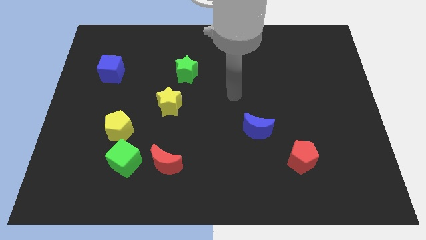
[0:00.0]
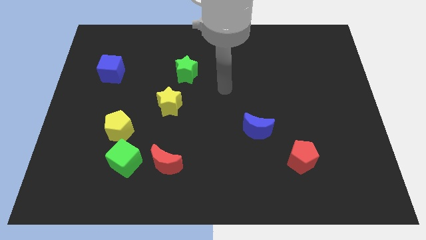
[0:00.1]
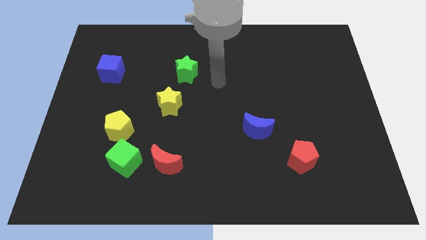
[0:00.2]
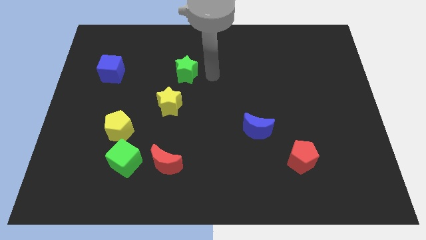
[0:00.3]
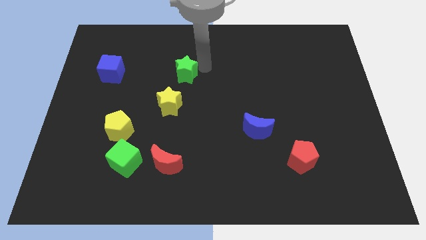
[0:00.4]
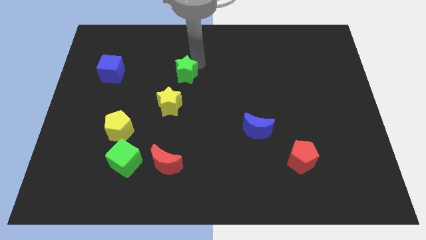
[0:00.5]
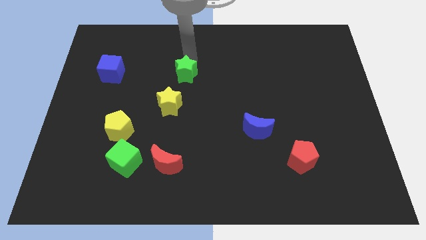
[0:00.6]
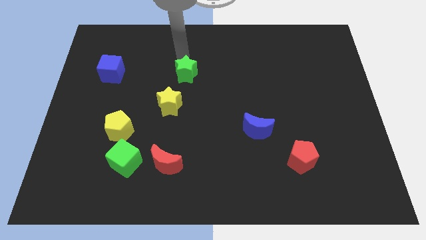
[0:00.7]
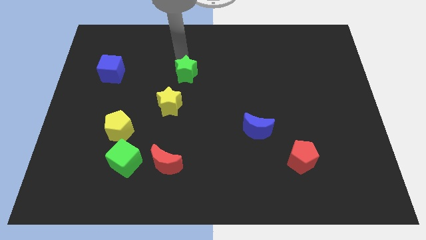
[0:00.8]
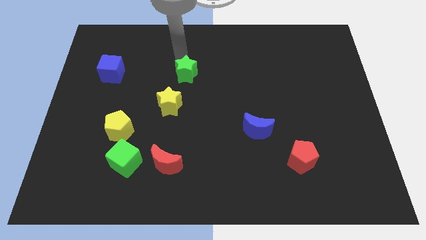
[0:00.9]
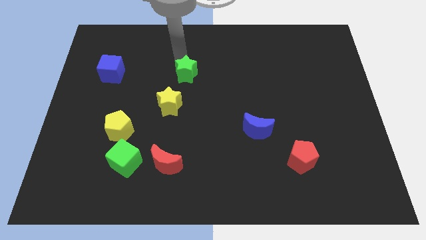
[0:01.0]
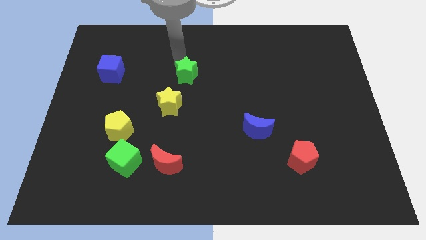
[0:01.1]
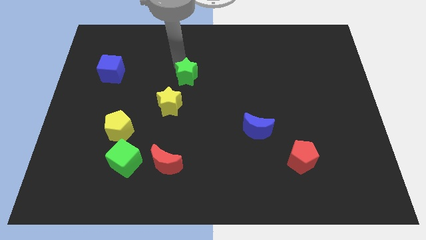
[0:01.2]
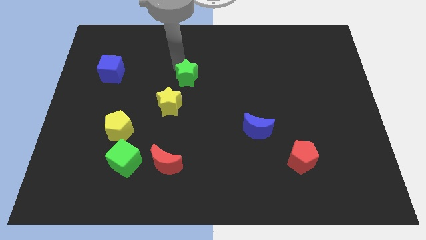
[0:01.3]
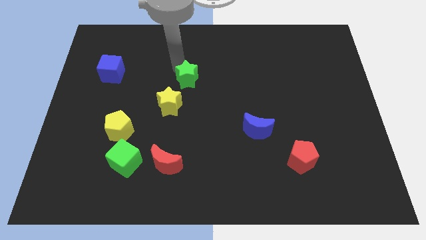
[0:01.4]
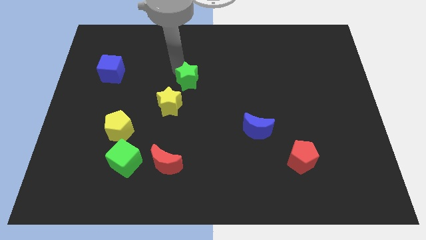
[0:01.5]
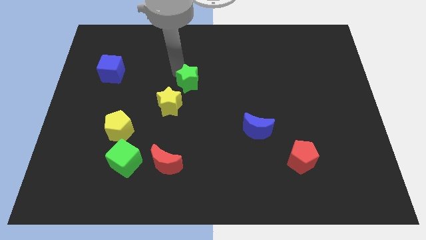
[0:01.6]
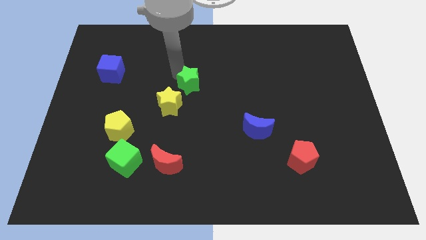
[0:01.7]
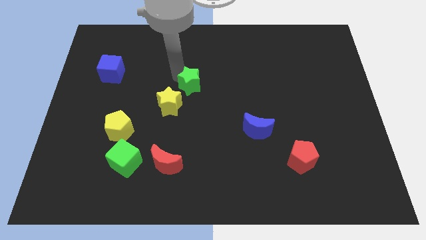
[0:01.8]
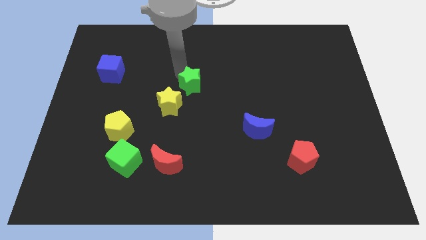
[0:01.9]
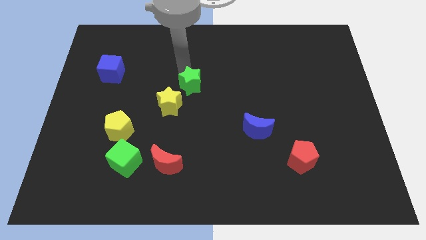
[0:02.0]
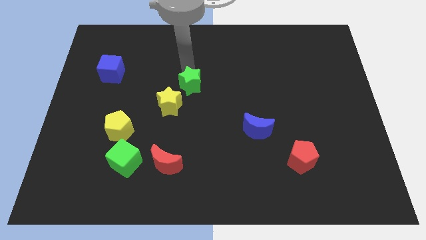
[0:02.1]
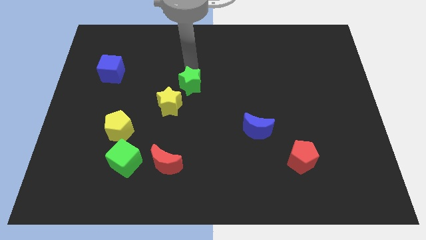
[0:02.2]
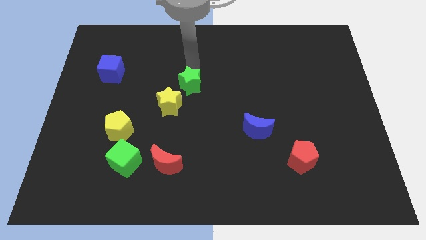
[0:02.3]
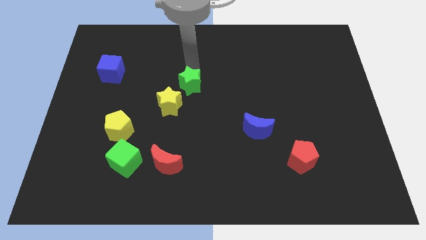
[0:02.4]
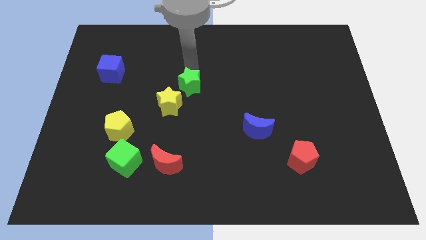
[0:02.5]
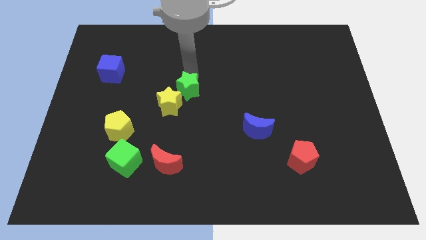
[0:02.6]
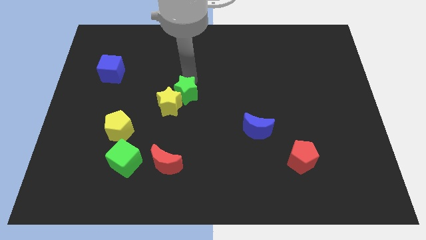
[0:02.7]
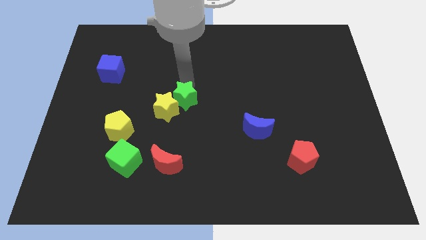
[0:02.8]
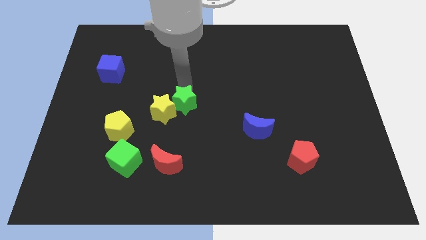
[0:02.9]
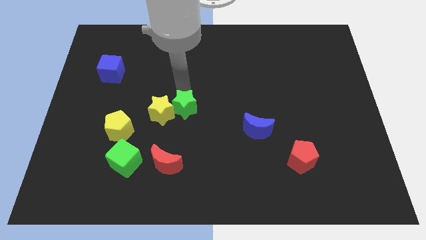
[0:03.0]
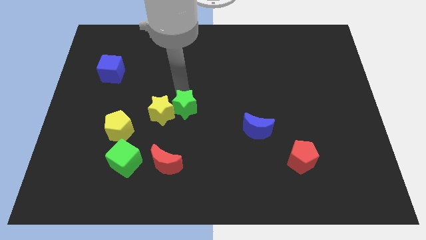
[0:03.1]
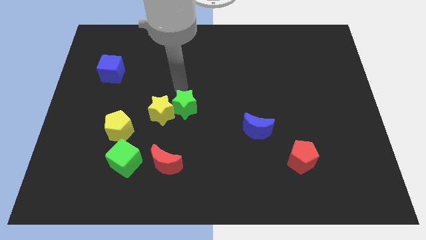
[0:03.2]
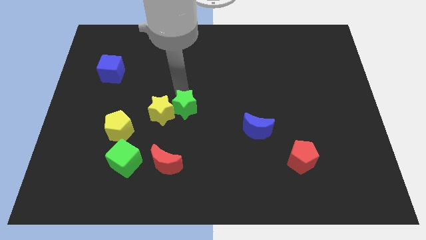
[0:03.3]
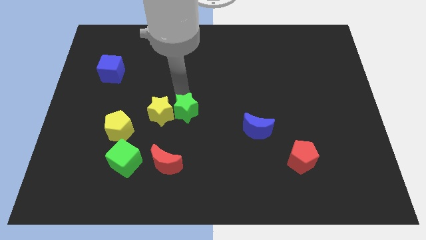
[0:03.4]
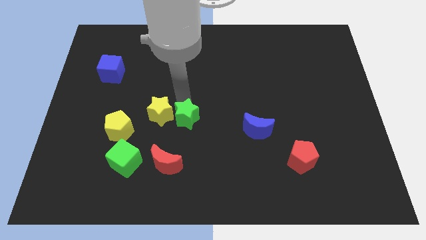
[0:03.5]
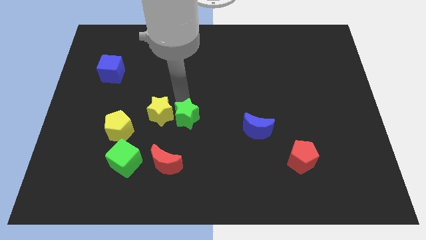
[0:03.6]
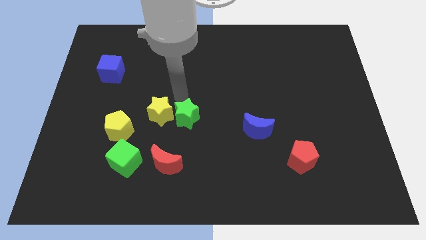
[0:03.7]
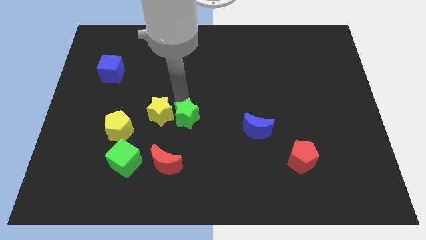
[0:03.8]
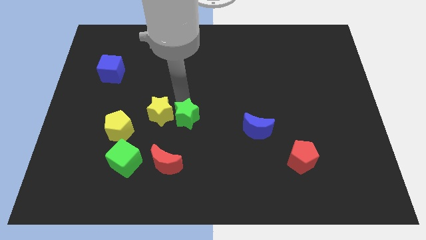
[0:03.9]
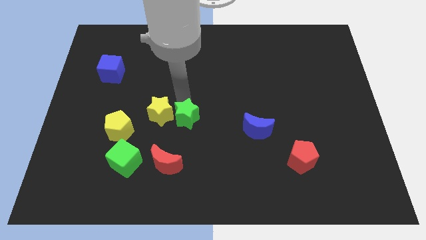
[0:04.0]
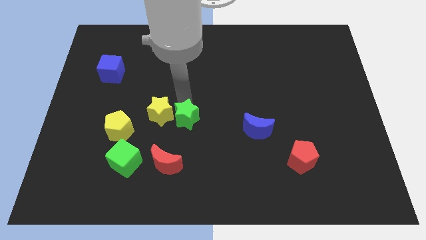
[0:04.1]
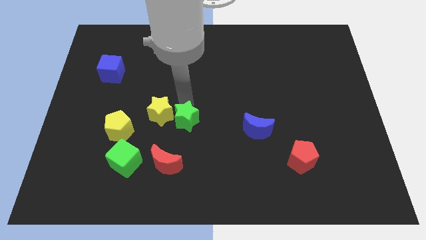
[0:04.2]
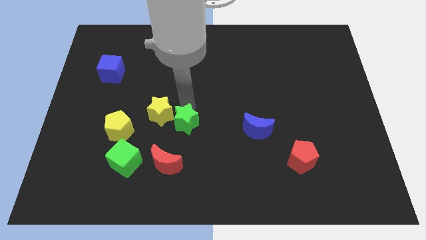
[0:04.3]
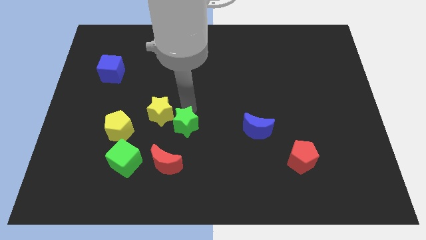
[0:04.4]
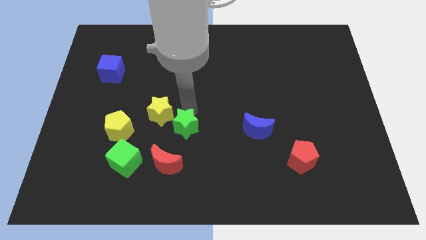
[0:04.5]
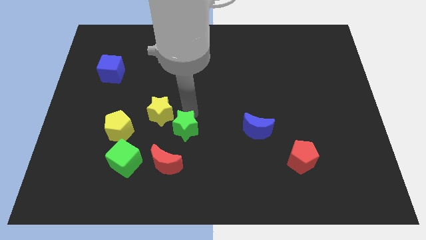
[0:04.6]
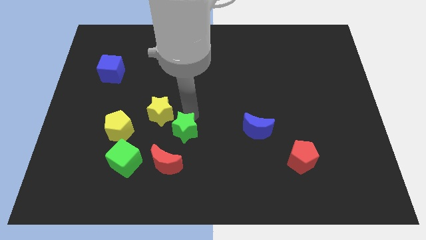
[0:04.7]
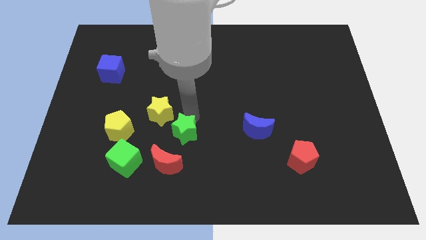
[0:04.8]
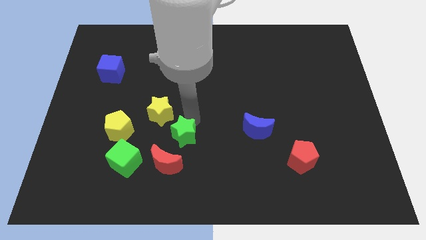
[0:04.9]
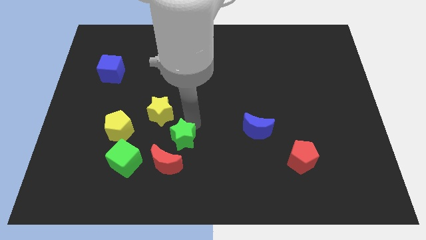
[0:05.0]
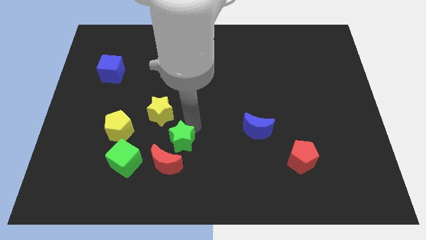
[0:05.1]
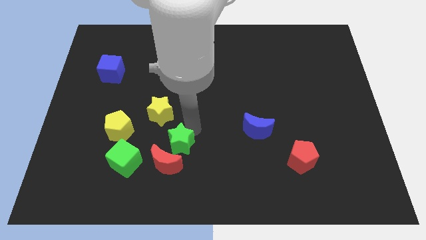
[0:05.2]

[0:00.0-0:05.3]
slide the green star close to the red moon

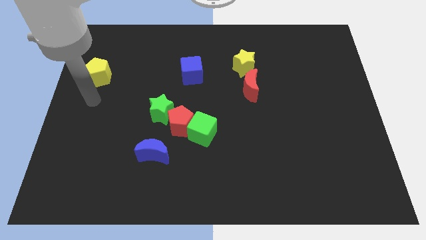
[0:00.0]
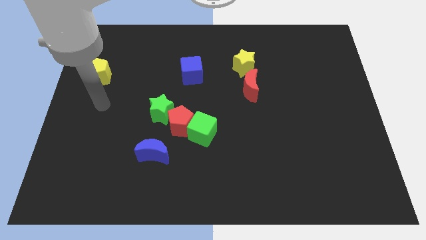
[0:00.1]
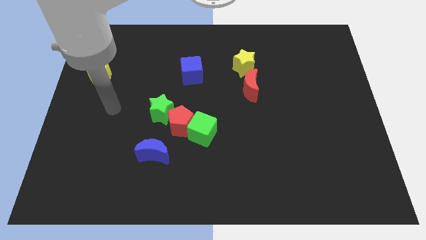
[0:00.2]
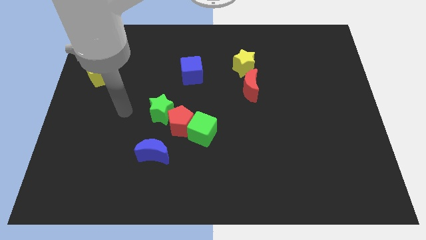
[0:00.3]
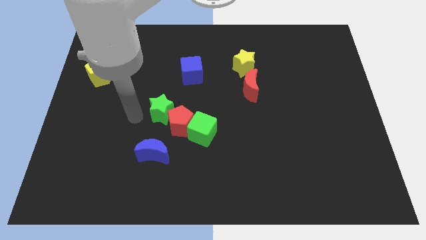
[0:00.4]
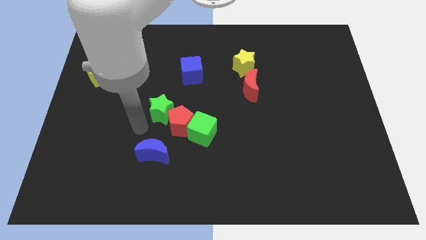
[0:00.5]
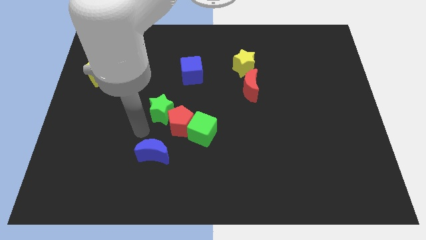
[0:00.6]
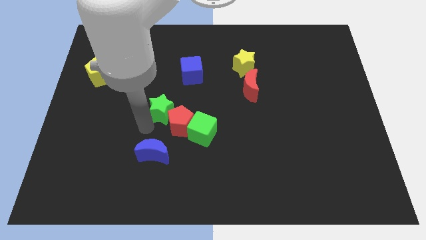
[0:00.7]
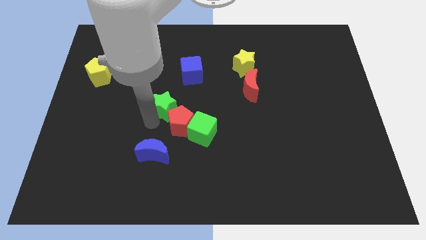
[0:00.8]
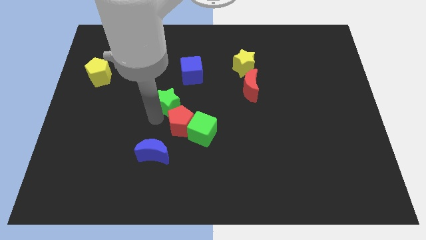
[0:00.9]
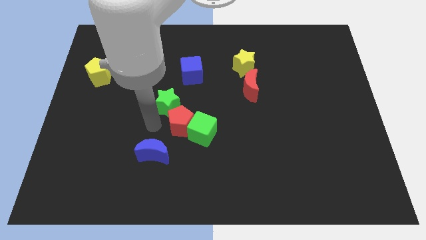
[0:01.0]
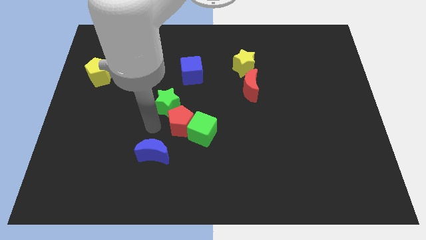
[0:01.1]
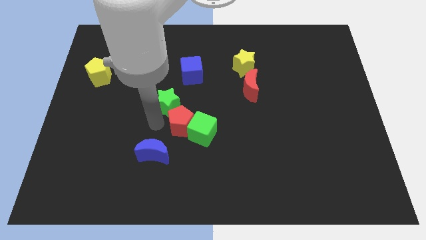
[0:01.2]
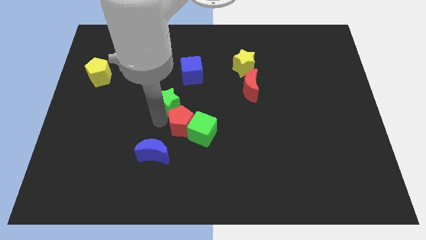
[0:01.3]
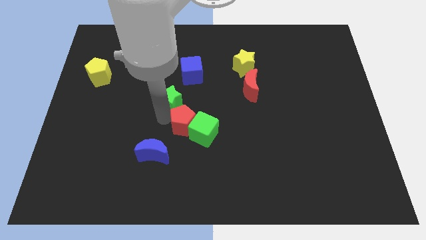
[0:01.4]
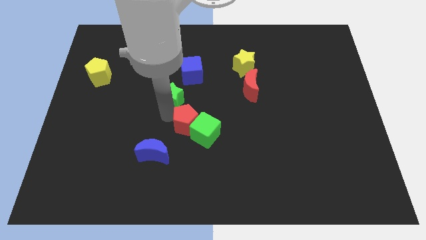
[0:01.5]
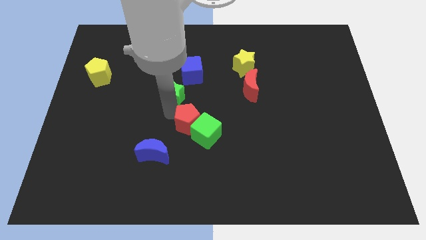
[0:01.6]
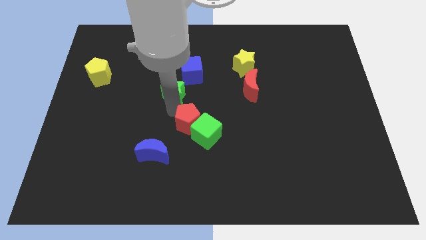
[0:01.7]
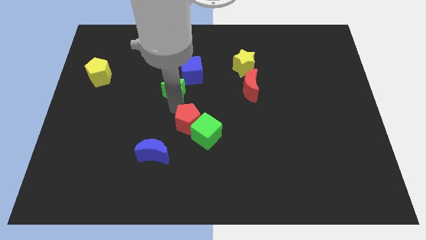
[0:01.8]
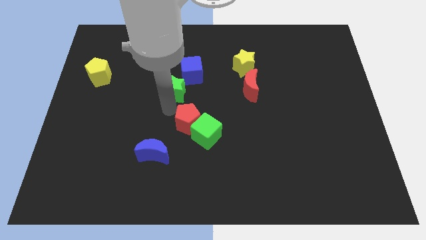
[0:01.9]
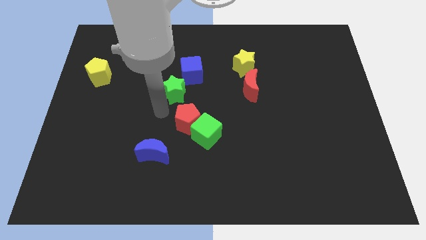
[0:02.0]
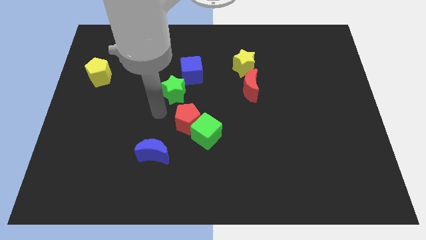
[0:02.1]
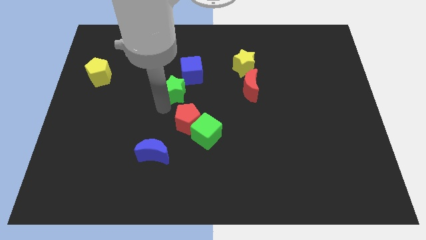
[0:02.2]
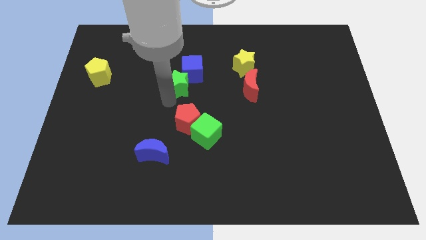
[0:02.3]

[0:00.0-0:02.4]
put the green star close to the blue cube
